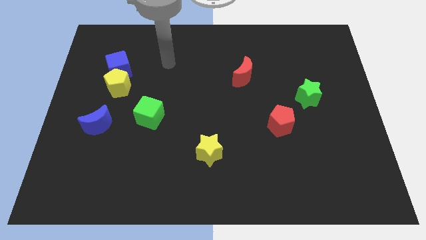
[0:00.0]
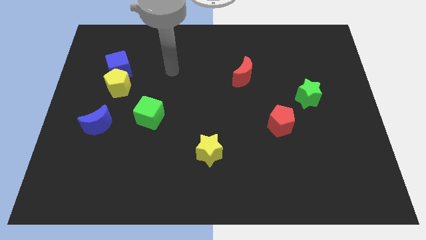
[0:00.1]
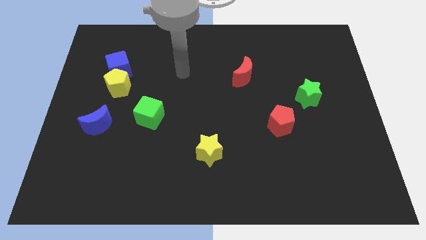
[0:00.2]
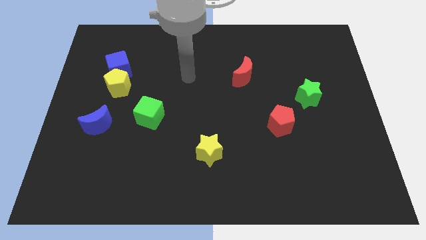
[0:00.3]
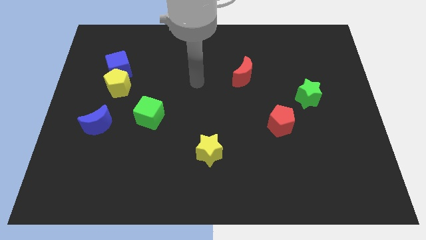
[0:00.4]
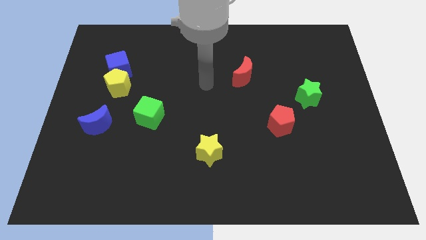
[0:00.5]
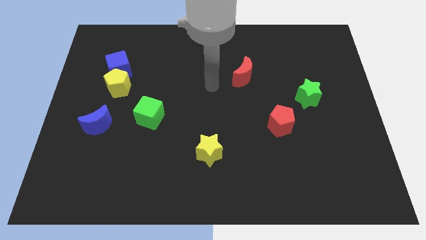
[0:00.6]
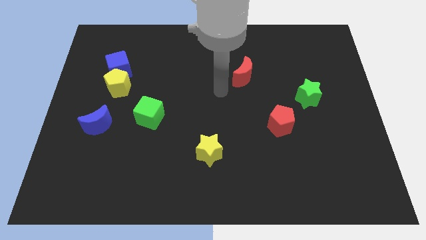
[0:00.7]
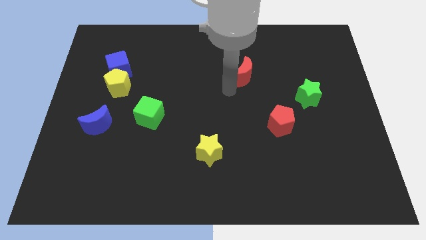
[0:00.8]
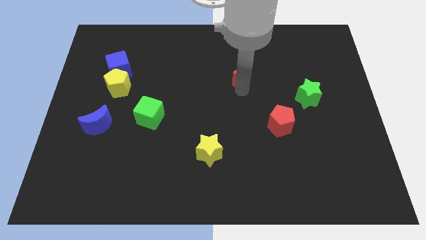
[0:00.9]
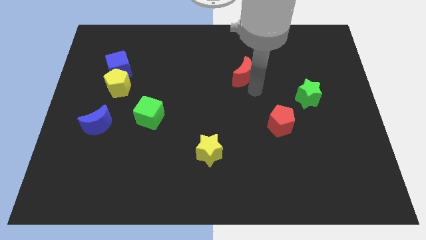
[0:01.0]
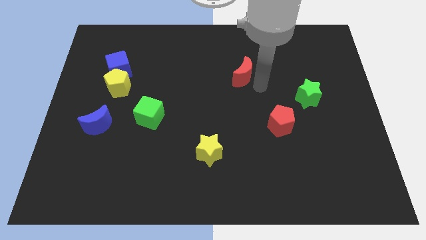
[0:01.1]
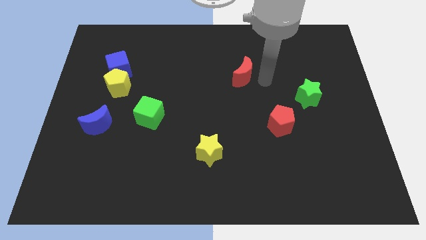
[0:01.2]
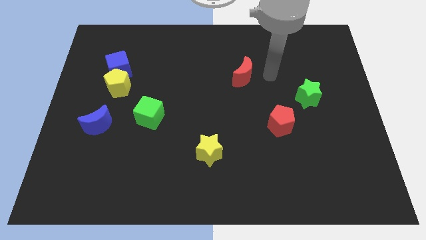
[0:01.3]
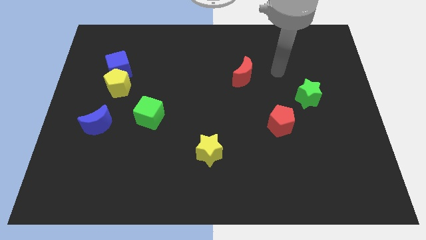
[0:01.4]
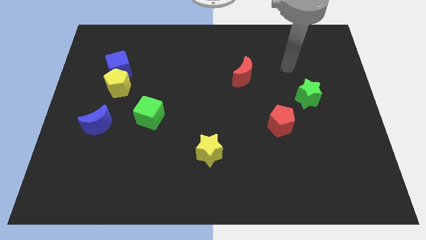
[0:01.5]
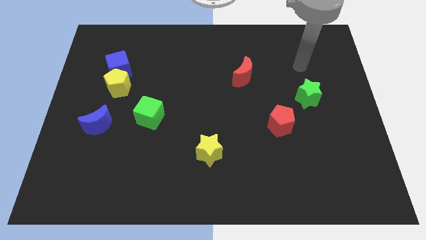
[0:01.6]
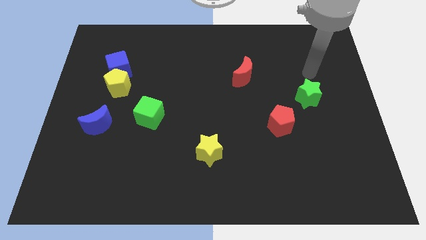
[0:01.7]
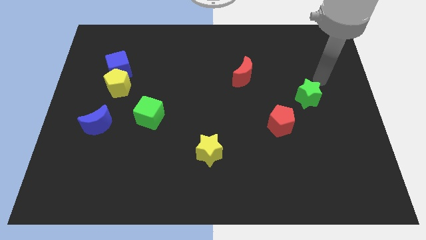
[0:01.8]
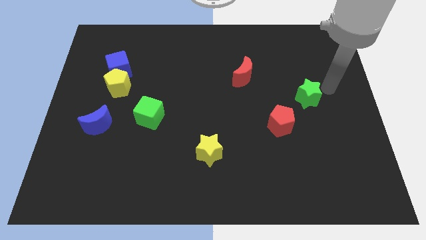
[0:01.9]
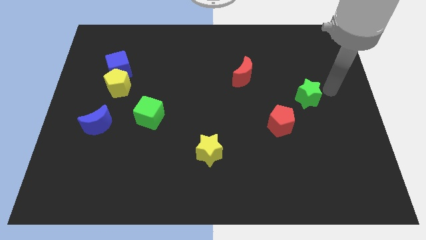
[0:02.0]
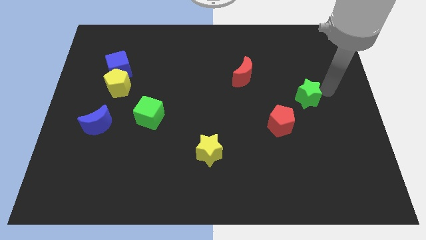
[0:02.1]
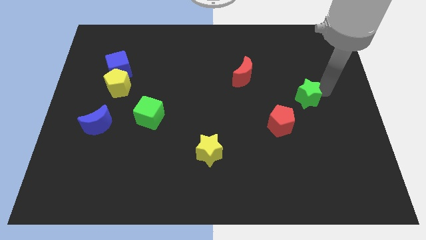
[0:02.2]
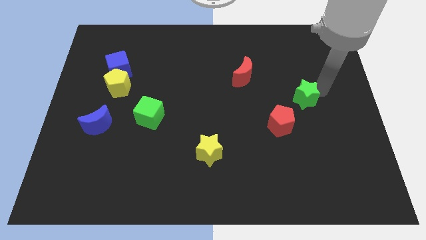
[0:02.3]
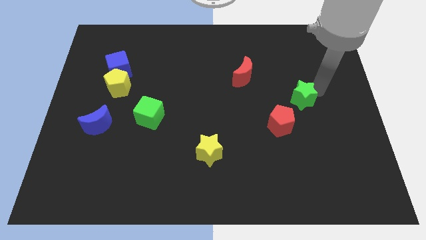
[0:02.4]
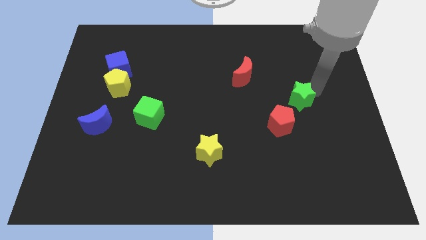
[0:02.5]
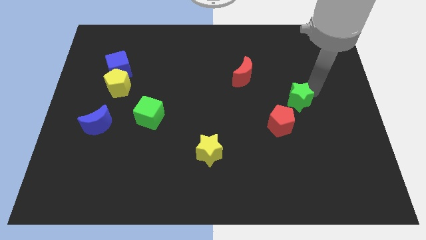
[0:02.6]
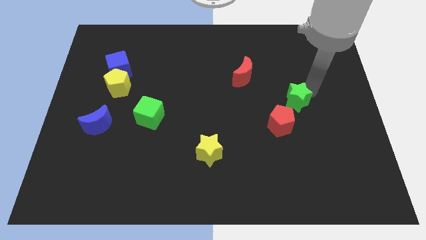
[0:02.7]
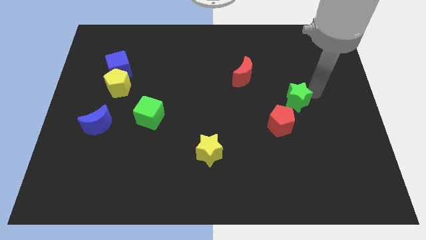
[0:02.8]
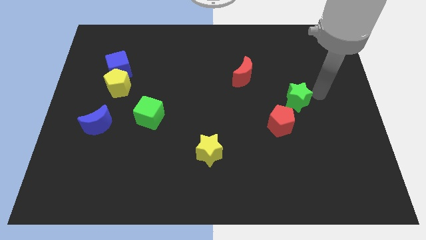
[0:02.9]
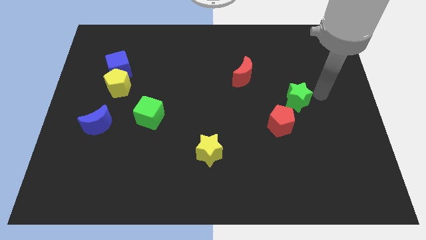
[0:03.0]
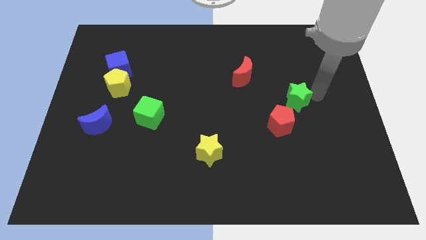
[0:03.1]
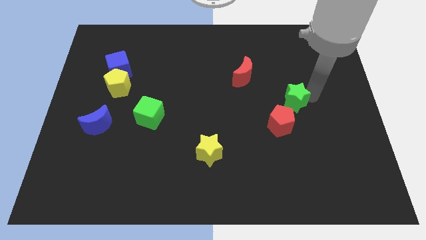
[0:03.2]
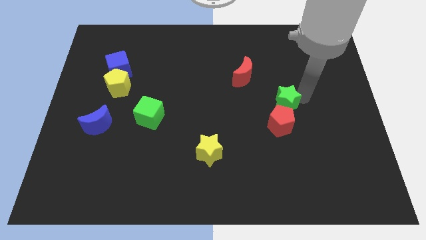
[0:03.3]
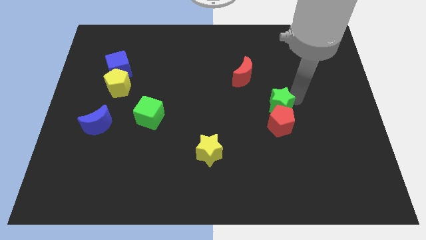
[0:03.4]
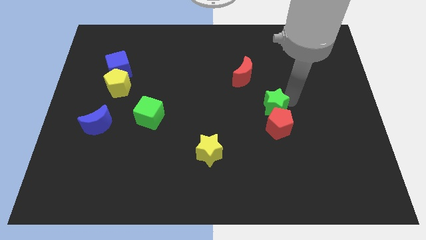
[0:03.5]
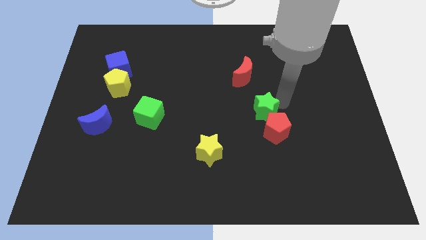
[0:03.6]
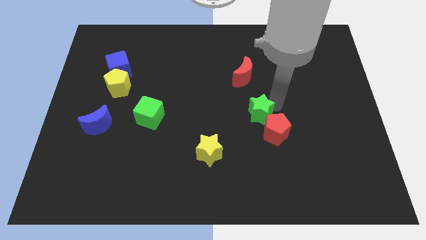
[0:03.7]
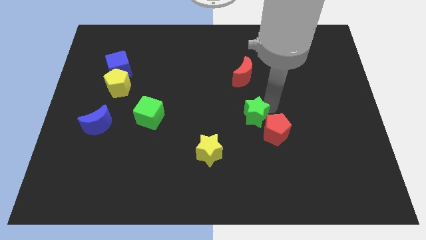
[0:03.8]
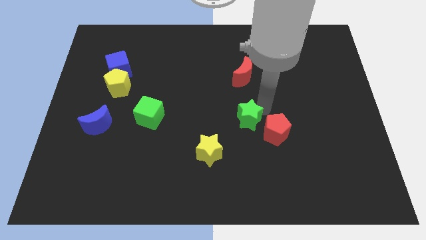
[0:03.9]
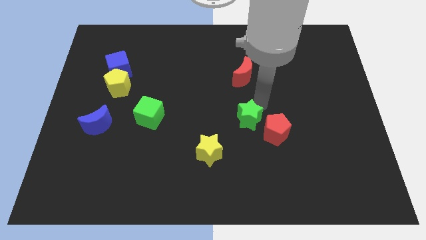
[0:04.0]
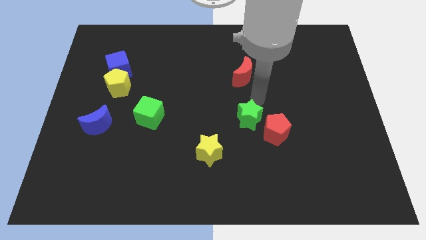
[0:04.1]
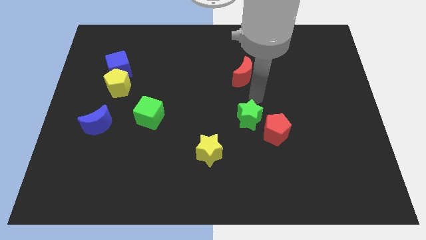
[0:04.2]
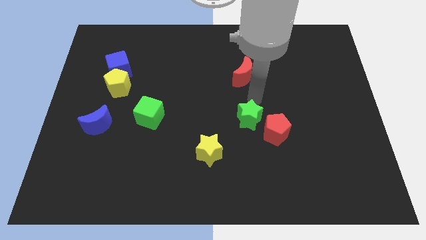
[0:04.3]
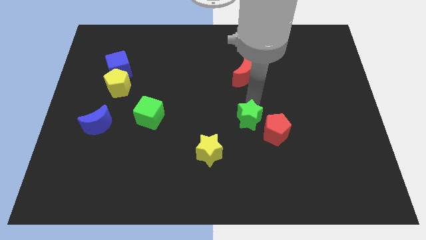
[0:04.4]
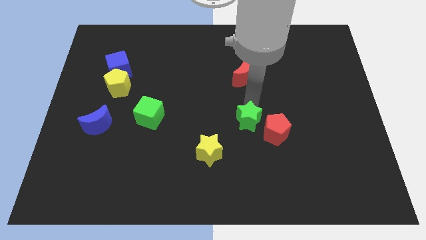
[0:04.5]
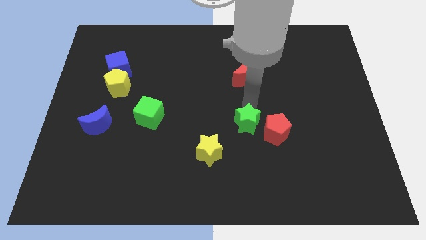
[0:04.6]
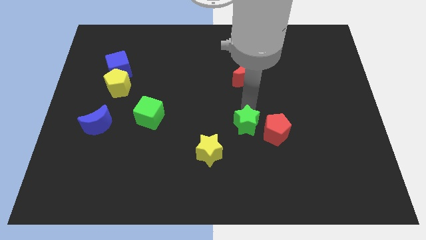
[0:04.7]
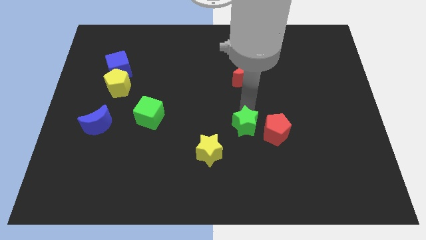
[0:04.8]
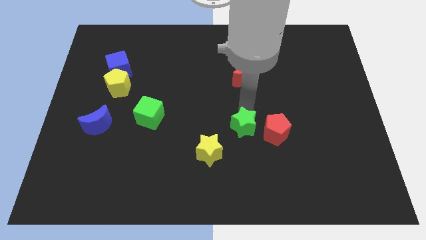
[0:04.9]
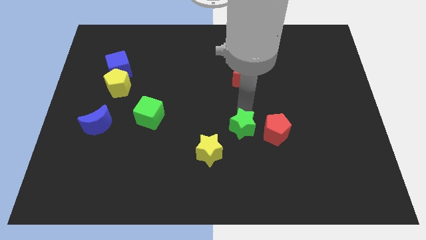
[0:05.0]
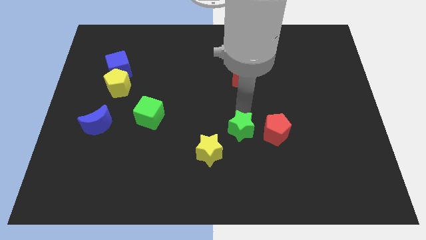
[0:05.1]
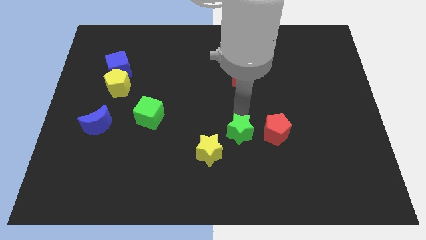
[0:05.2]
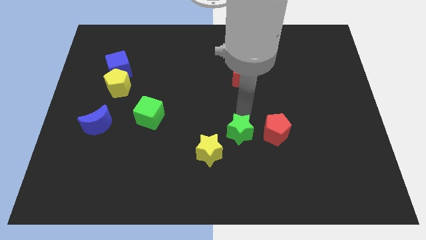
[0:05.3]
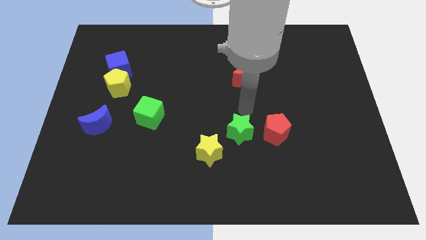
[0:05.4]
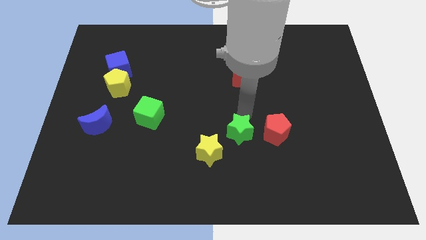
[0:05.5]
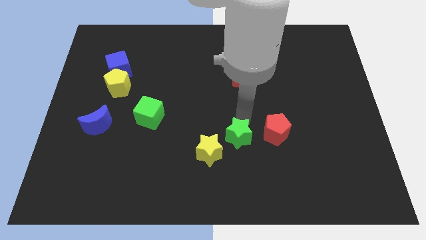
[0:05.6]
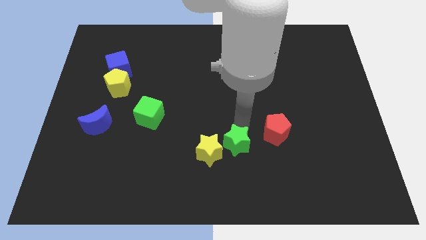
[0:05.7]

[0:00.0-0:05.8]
slide the green star down and left

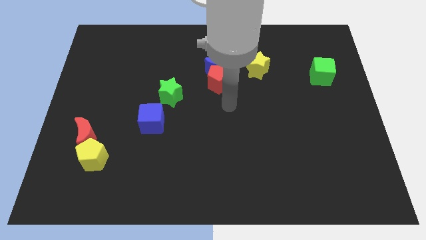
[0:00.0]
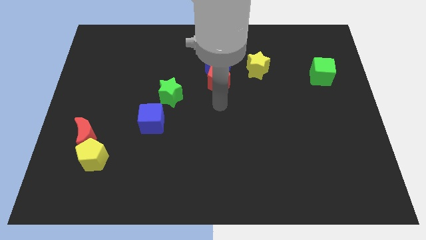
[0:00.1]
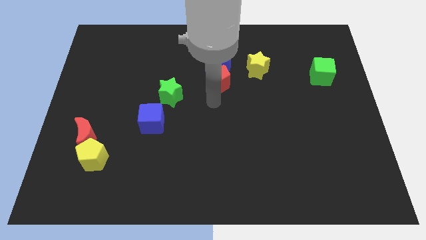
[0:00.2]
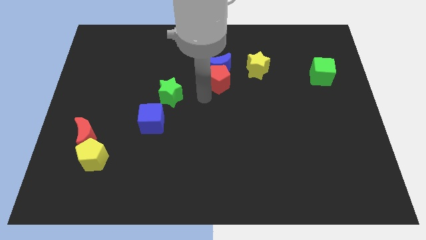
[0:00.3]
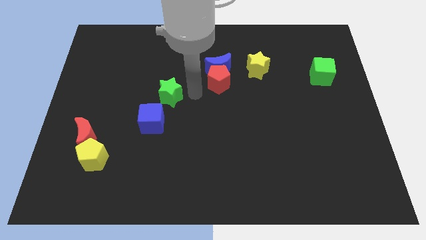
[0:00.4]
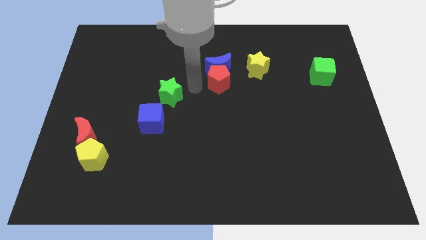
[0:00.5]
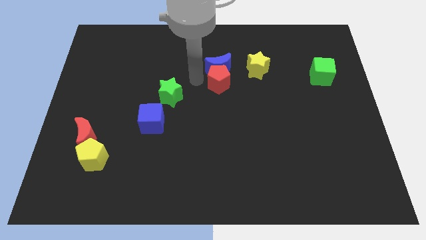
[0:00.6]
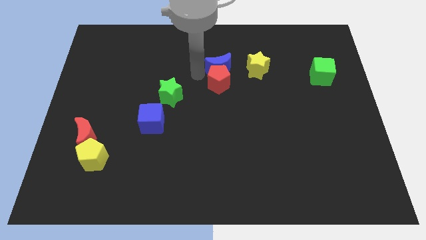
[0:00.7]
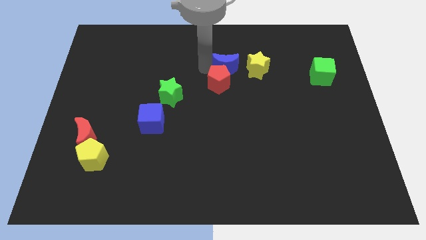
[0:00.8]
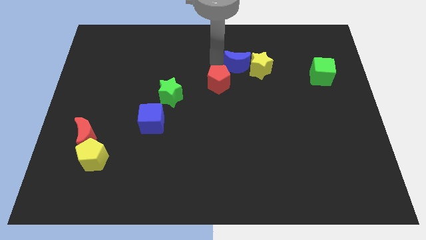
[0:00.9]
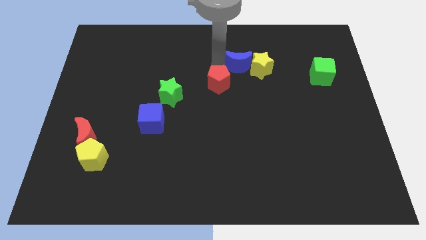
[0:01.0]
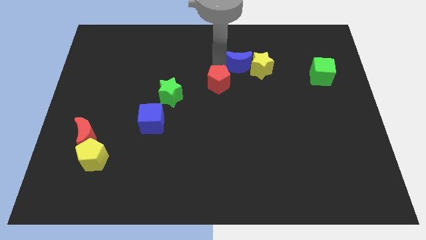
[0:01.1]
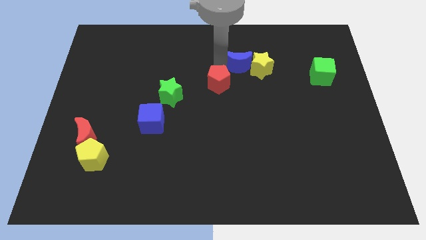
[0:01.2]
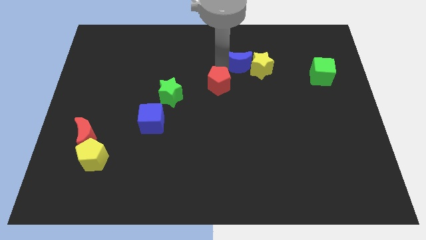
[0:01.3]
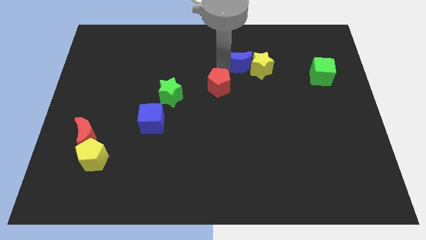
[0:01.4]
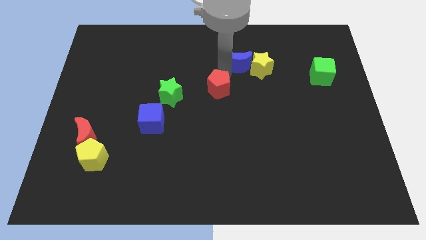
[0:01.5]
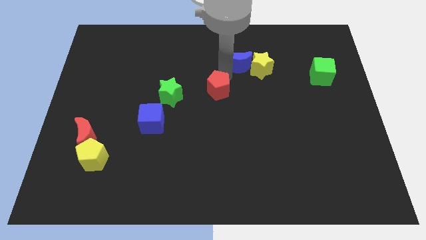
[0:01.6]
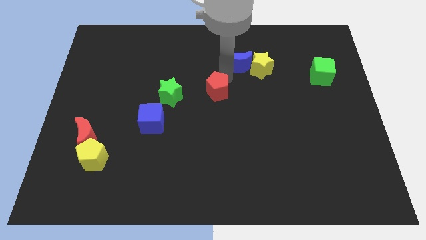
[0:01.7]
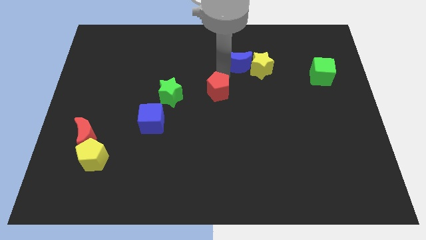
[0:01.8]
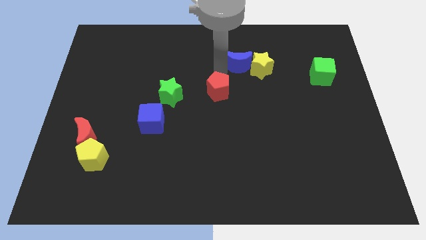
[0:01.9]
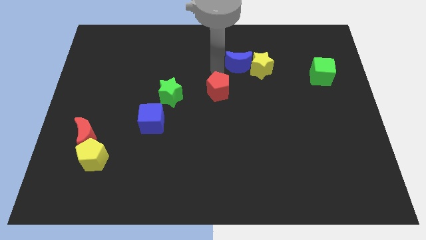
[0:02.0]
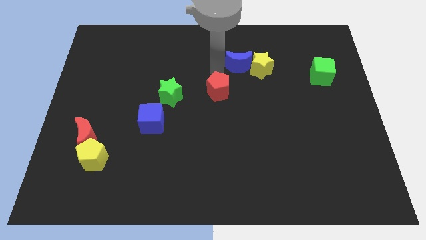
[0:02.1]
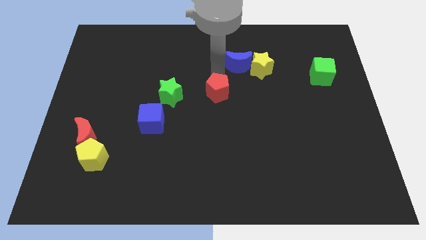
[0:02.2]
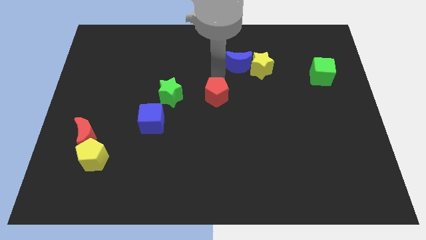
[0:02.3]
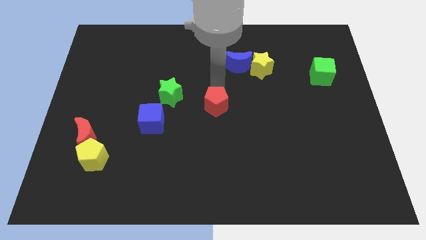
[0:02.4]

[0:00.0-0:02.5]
slightly slide the red pentagon downwards
